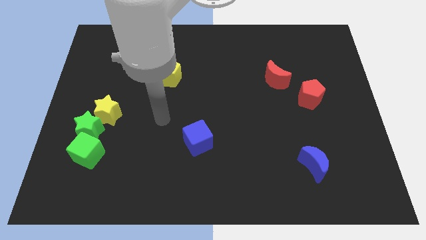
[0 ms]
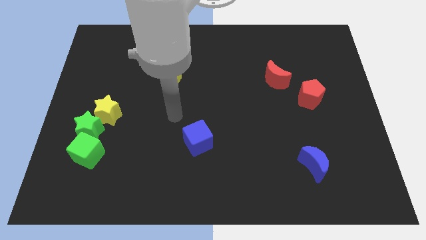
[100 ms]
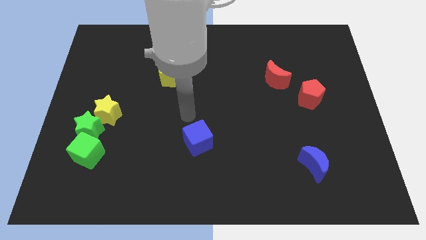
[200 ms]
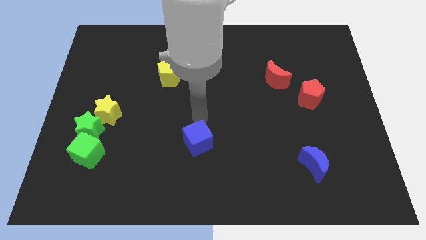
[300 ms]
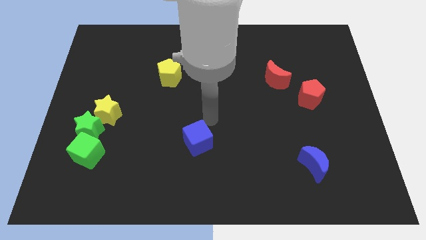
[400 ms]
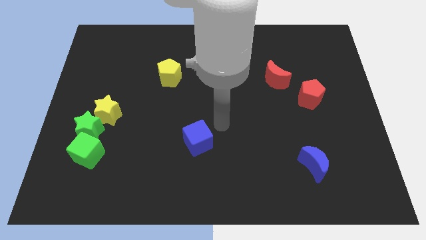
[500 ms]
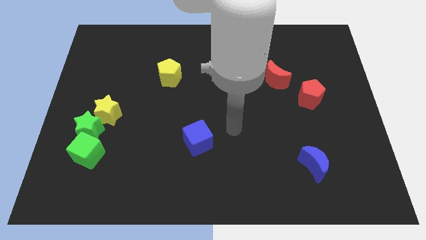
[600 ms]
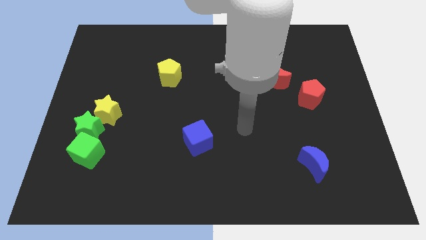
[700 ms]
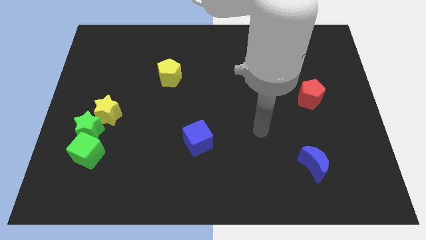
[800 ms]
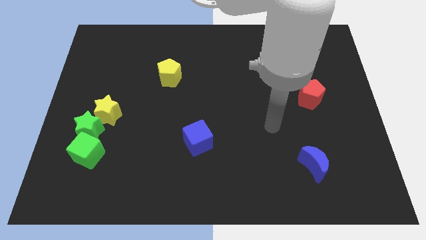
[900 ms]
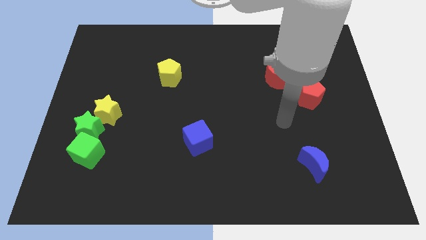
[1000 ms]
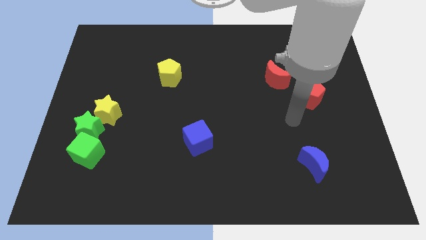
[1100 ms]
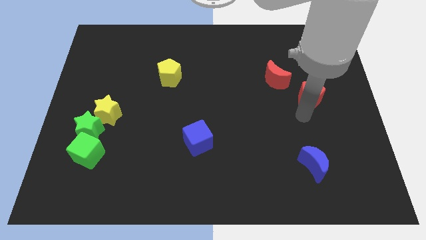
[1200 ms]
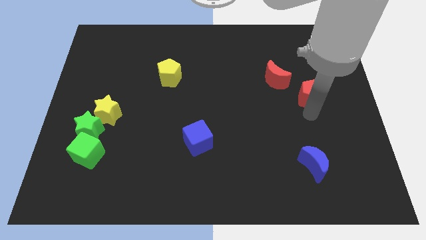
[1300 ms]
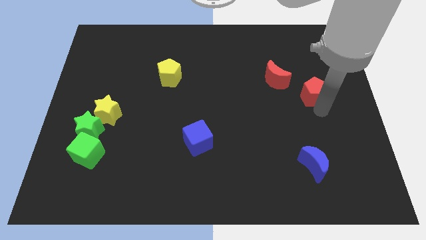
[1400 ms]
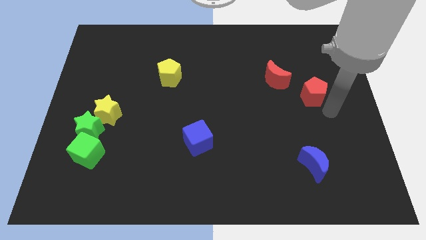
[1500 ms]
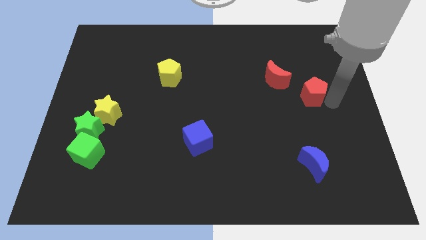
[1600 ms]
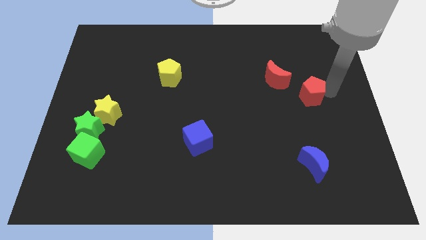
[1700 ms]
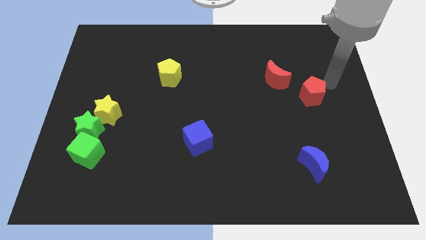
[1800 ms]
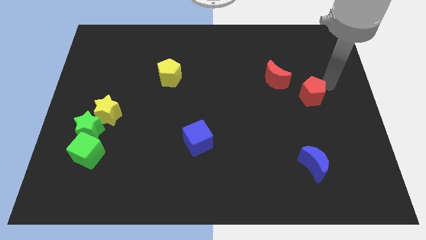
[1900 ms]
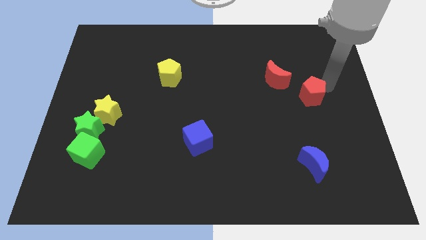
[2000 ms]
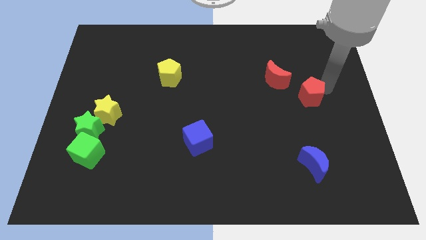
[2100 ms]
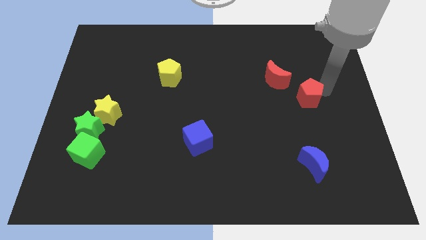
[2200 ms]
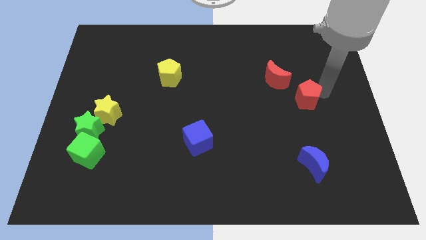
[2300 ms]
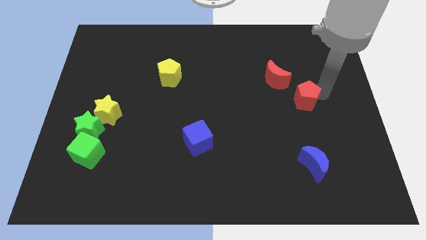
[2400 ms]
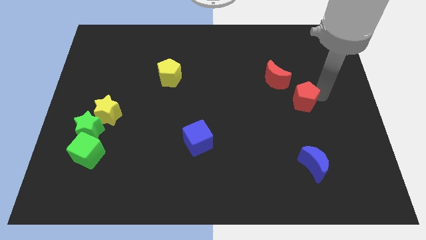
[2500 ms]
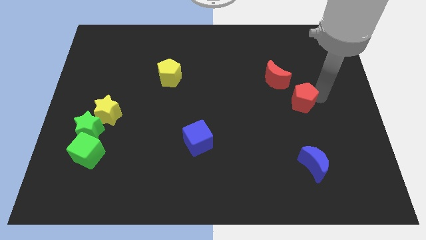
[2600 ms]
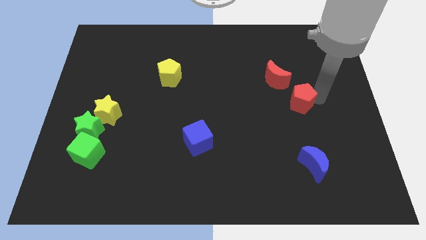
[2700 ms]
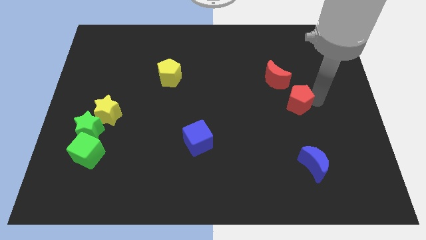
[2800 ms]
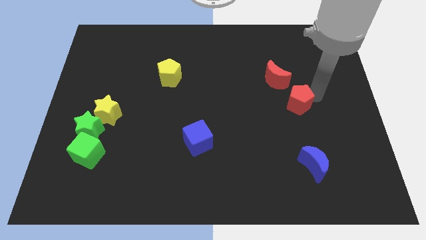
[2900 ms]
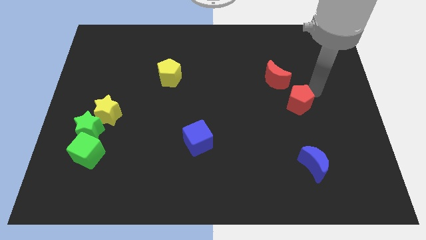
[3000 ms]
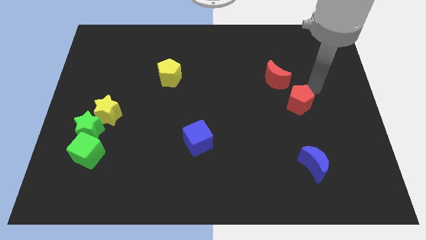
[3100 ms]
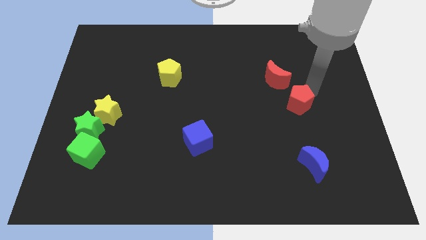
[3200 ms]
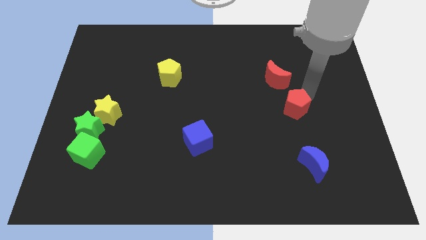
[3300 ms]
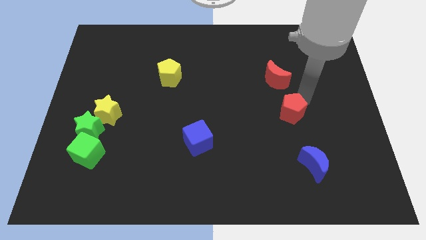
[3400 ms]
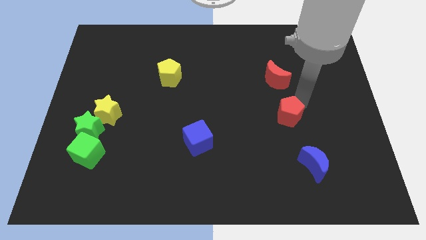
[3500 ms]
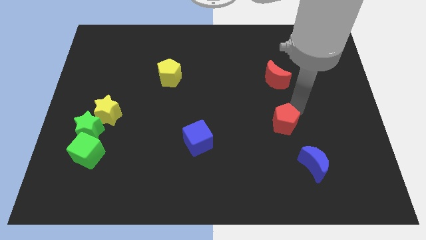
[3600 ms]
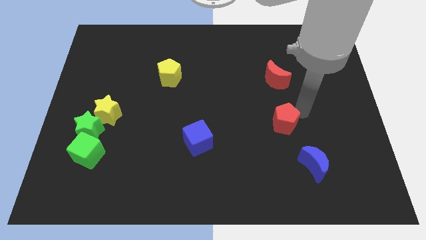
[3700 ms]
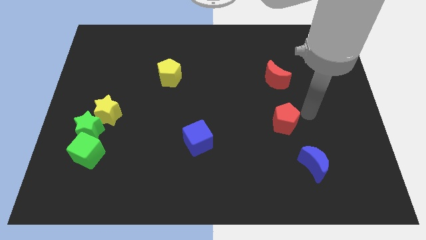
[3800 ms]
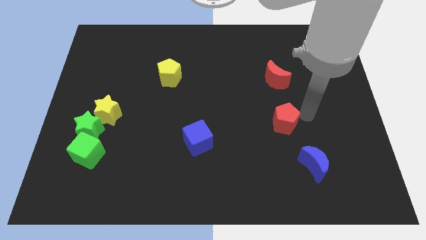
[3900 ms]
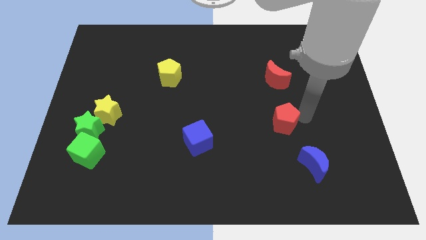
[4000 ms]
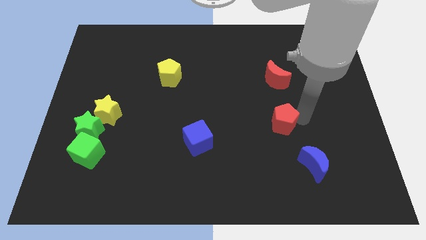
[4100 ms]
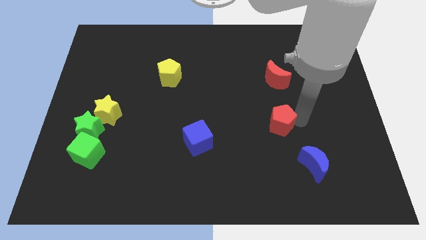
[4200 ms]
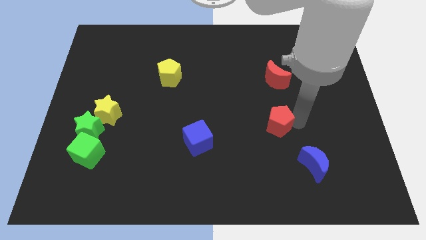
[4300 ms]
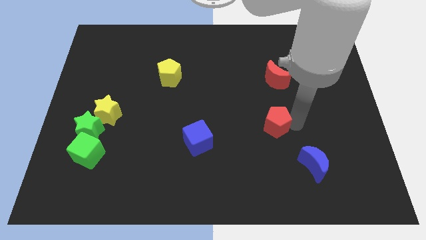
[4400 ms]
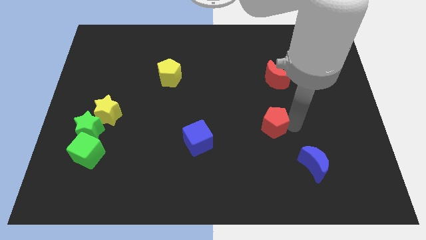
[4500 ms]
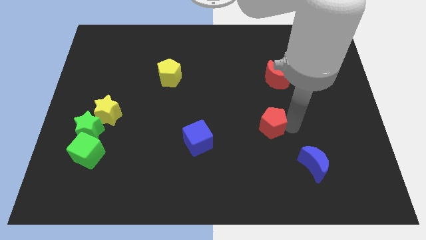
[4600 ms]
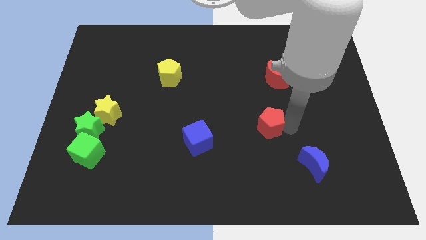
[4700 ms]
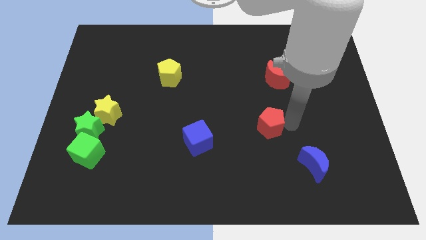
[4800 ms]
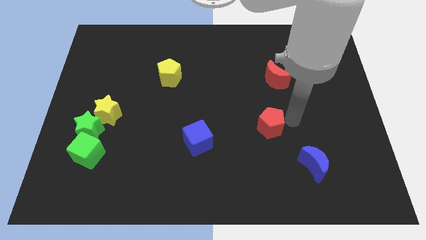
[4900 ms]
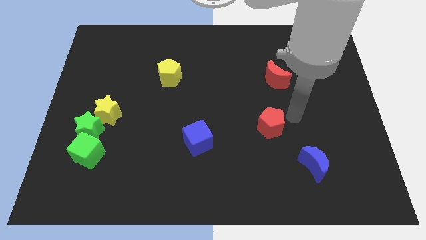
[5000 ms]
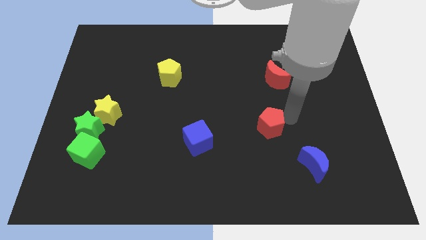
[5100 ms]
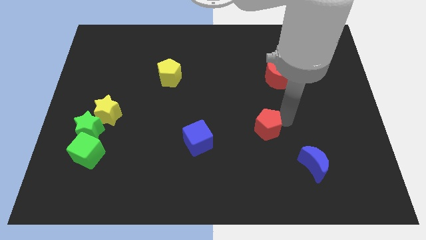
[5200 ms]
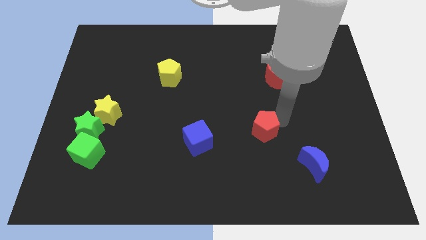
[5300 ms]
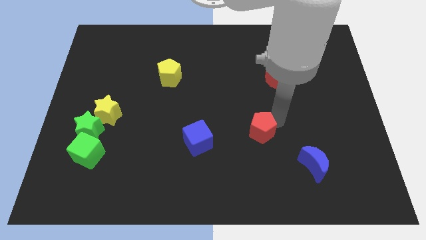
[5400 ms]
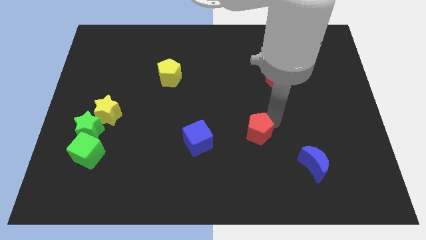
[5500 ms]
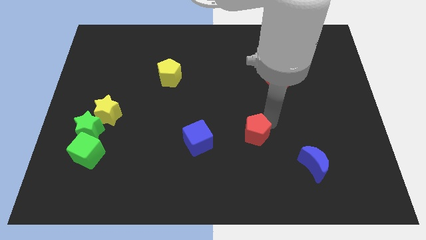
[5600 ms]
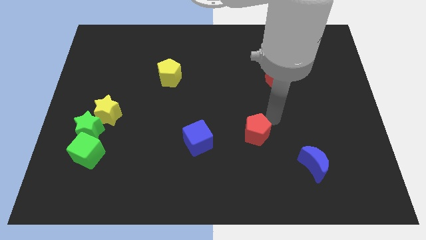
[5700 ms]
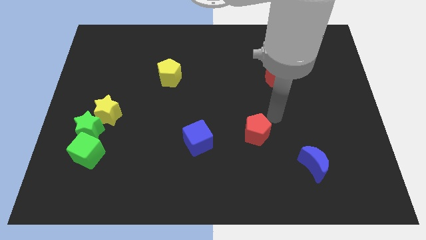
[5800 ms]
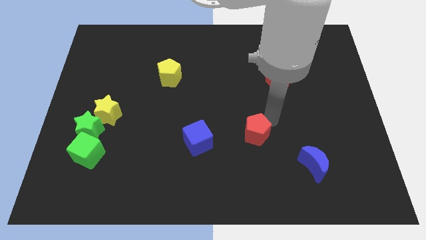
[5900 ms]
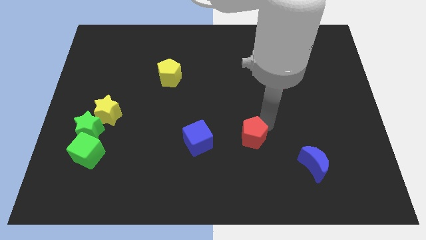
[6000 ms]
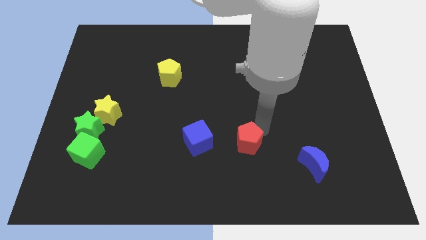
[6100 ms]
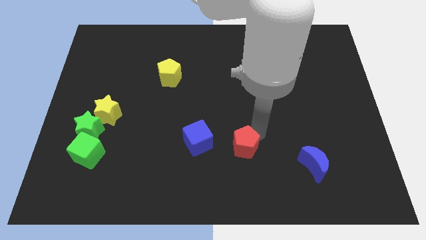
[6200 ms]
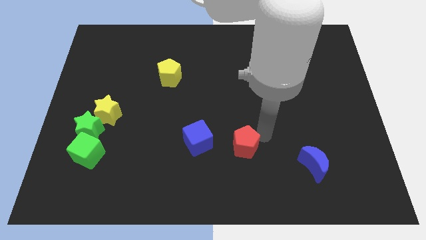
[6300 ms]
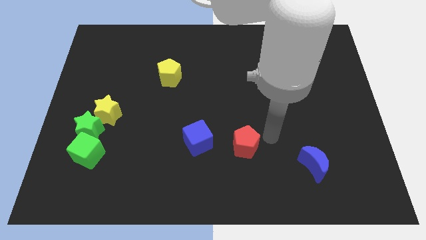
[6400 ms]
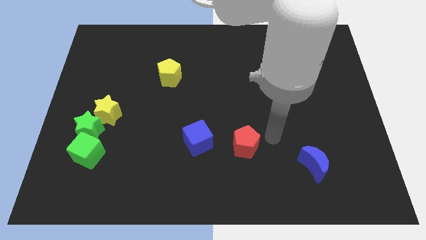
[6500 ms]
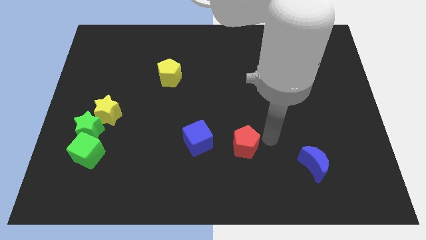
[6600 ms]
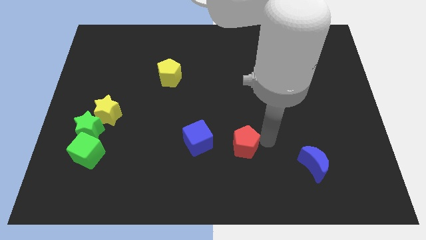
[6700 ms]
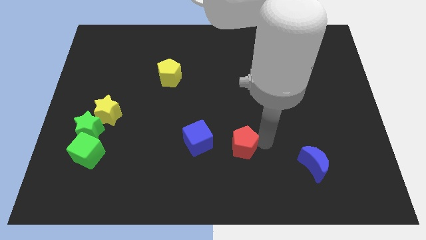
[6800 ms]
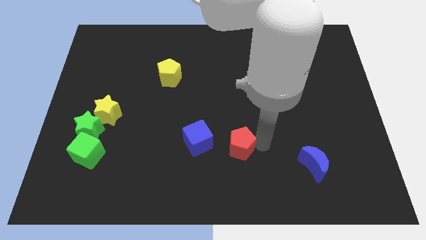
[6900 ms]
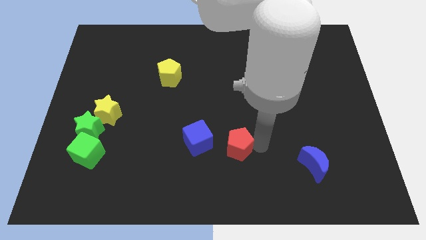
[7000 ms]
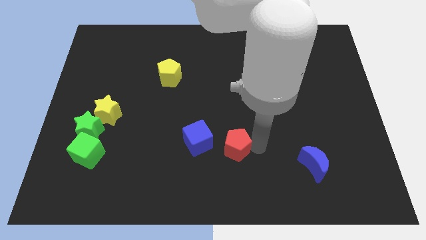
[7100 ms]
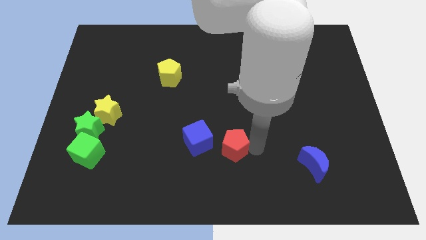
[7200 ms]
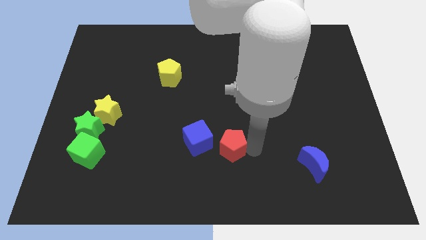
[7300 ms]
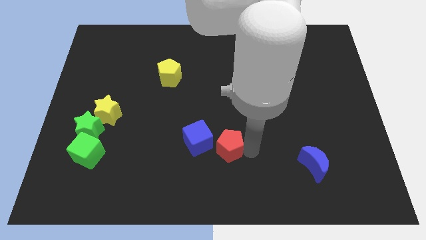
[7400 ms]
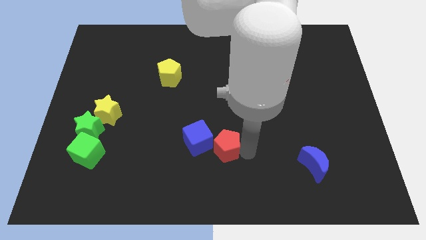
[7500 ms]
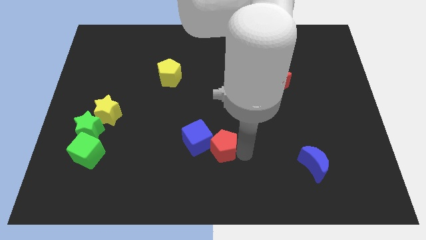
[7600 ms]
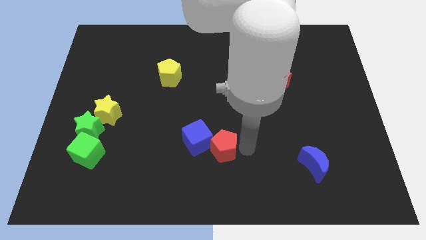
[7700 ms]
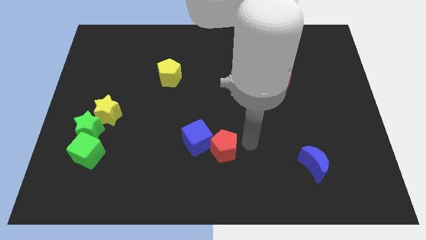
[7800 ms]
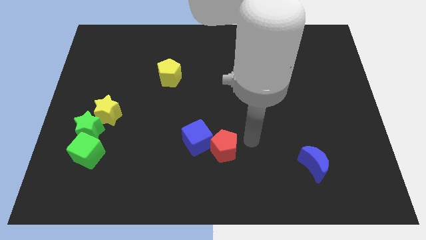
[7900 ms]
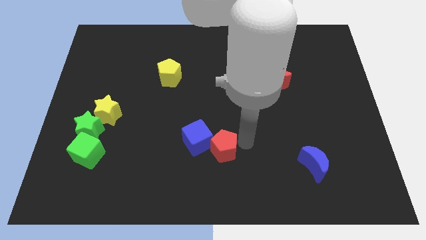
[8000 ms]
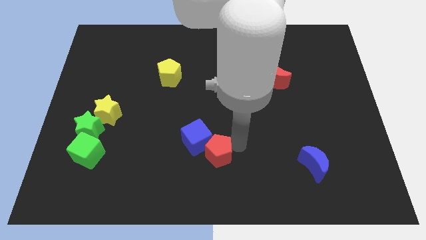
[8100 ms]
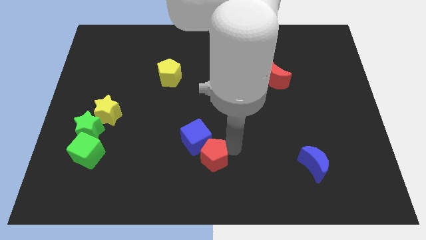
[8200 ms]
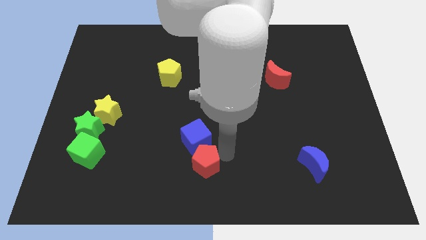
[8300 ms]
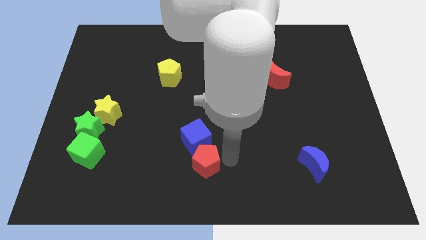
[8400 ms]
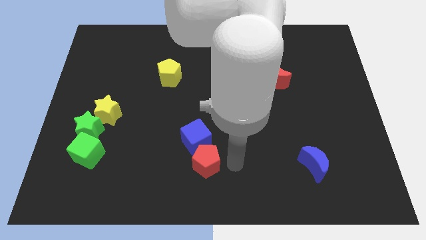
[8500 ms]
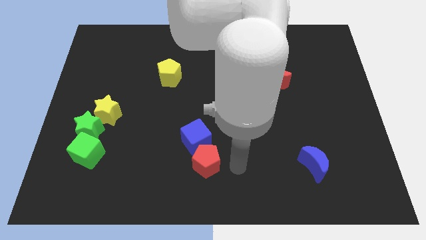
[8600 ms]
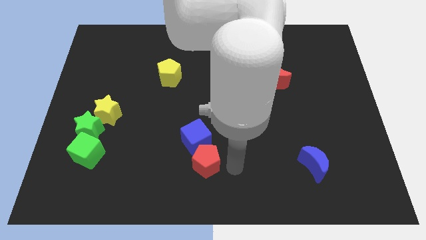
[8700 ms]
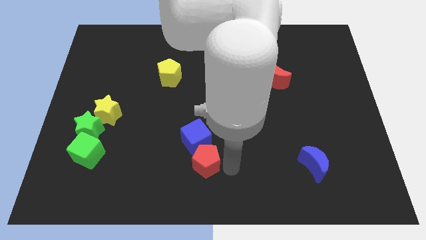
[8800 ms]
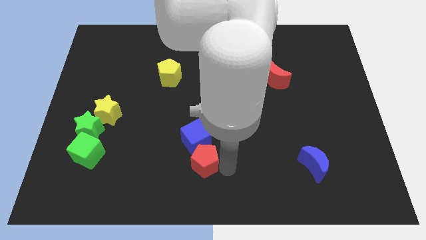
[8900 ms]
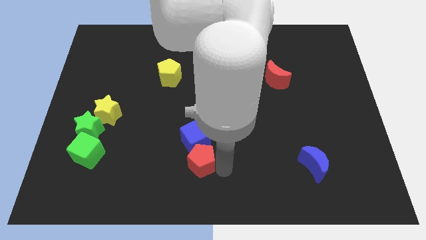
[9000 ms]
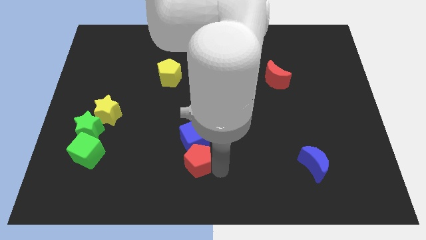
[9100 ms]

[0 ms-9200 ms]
slide the red pentagon to the bottom left side of the blue cube
